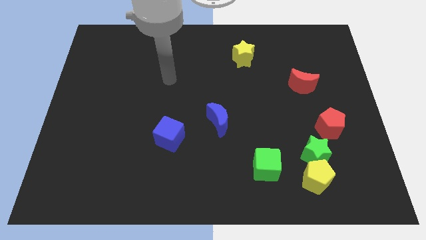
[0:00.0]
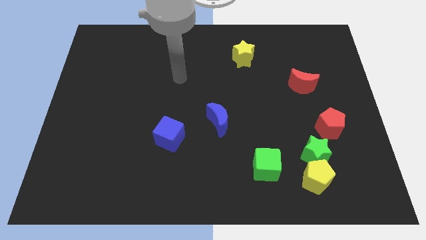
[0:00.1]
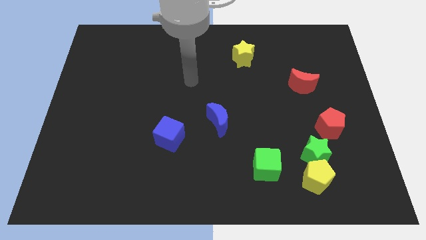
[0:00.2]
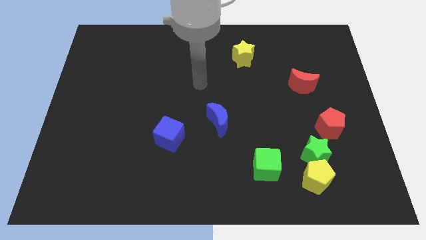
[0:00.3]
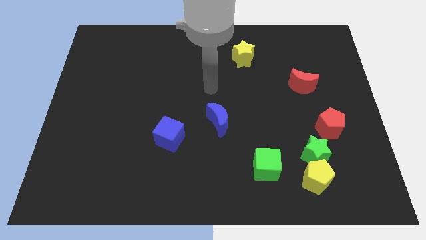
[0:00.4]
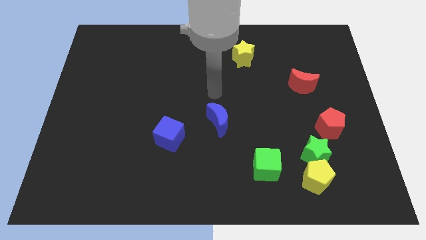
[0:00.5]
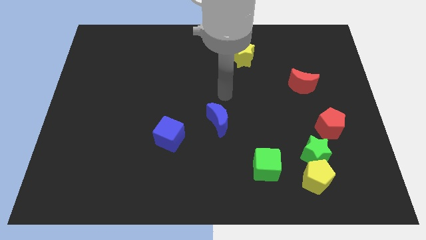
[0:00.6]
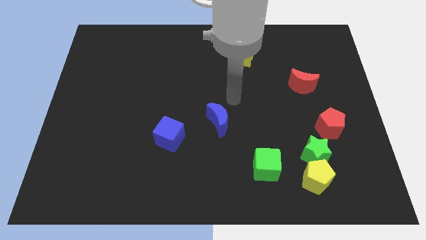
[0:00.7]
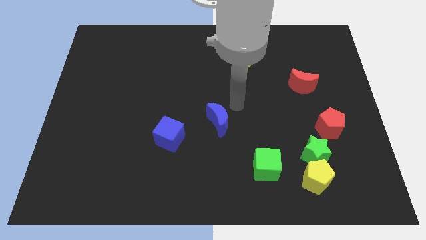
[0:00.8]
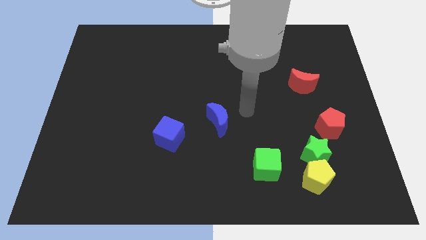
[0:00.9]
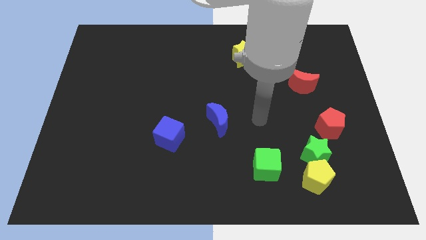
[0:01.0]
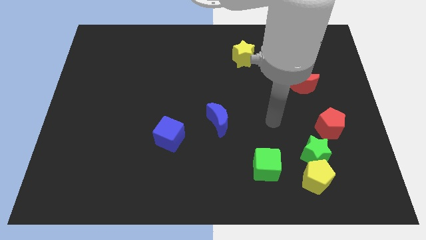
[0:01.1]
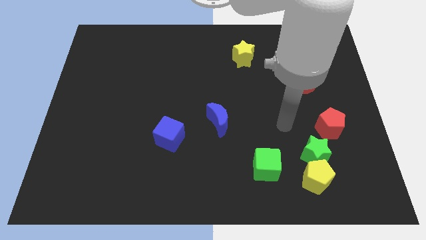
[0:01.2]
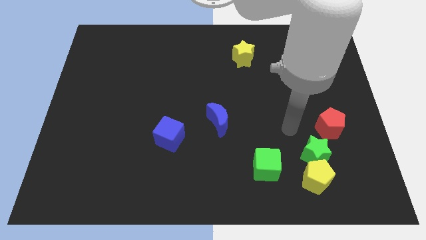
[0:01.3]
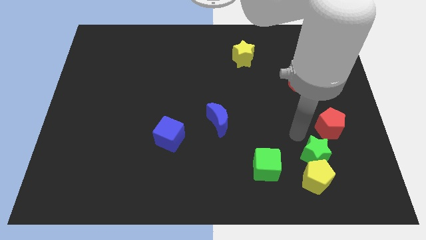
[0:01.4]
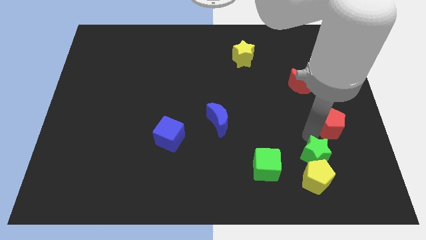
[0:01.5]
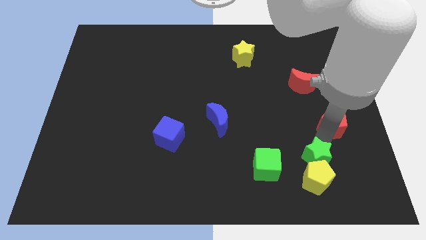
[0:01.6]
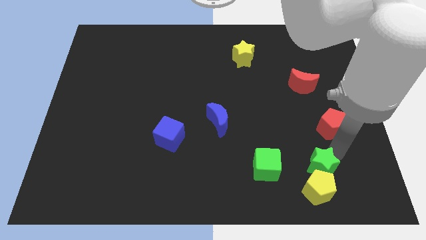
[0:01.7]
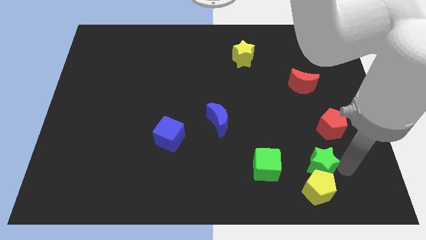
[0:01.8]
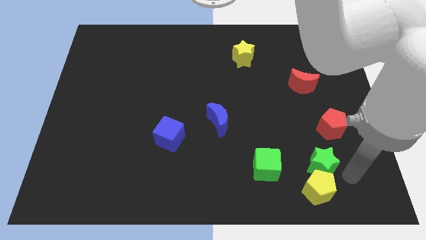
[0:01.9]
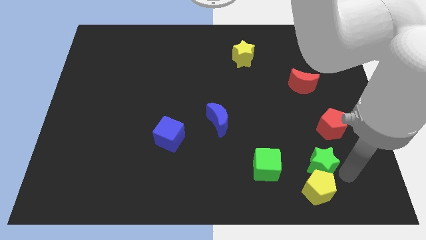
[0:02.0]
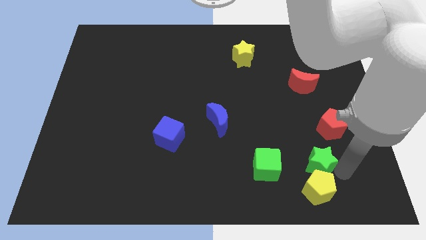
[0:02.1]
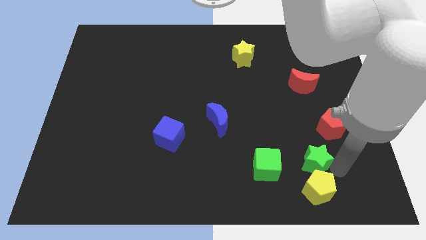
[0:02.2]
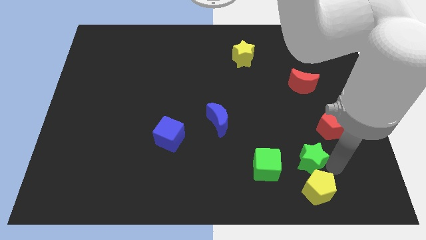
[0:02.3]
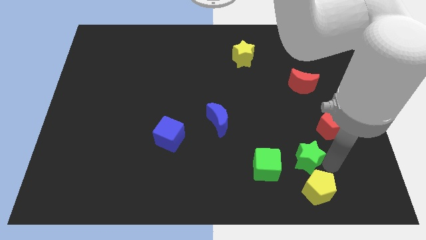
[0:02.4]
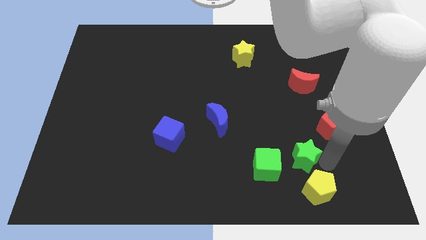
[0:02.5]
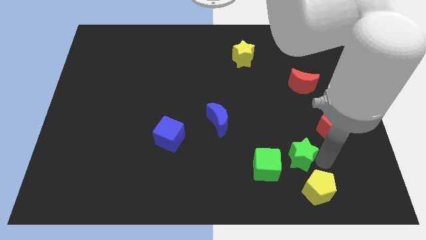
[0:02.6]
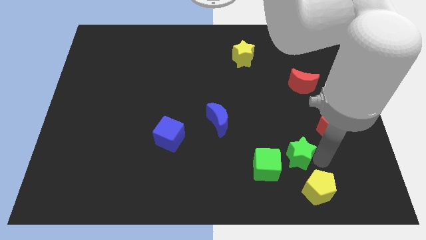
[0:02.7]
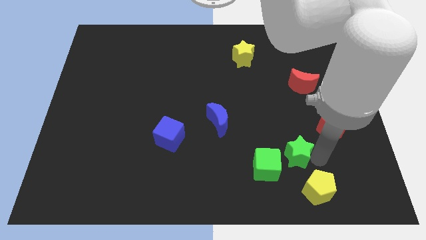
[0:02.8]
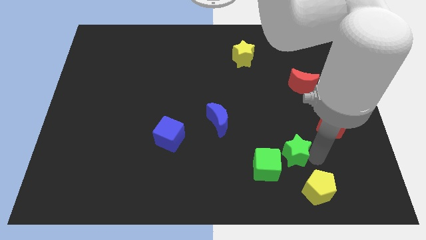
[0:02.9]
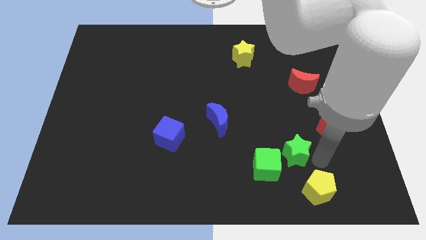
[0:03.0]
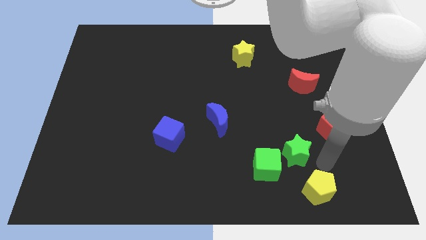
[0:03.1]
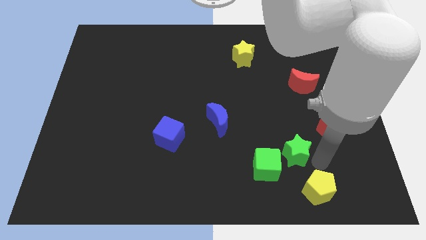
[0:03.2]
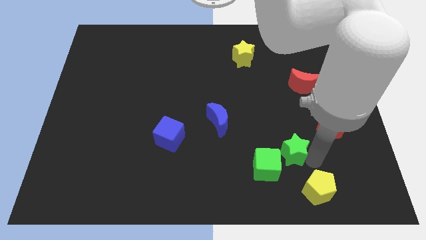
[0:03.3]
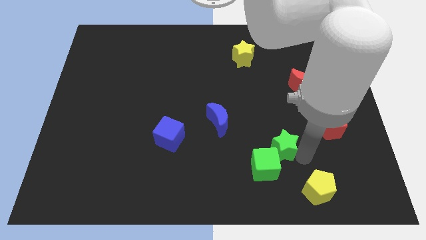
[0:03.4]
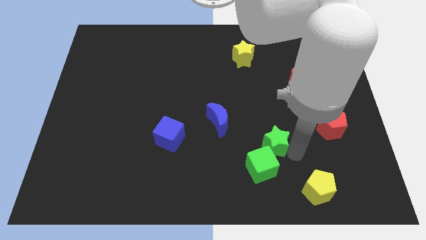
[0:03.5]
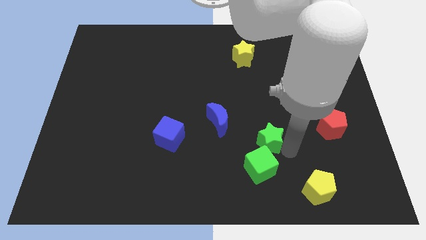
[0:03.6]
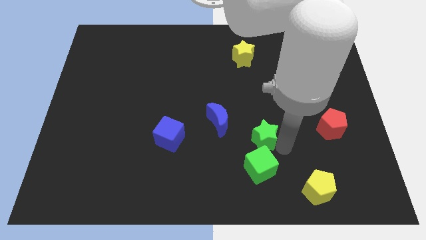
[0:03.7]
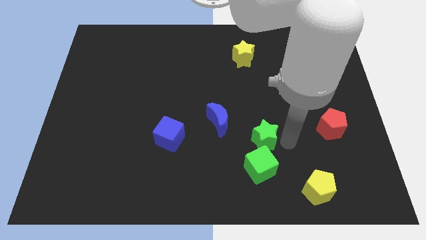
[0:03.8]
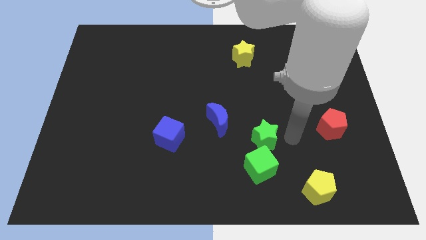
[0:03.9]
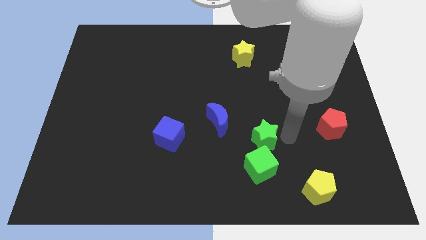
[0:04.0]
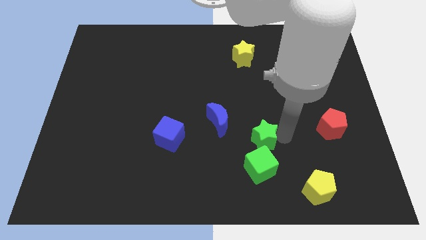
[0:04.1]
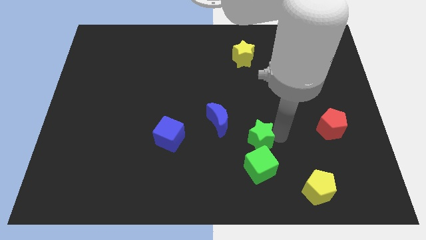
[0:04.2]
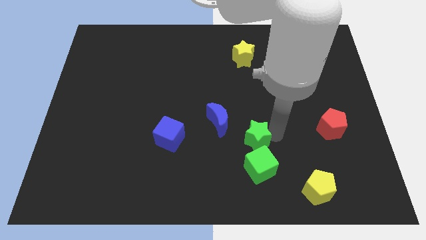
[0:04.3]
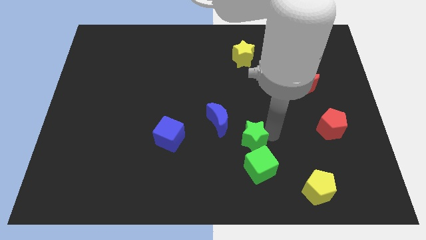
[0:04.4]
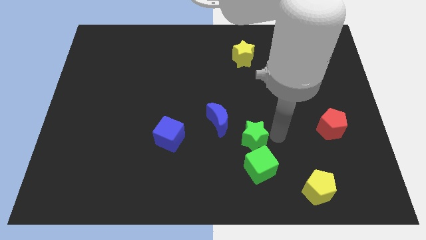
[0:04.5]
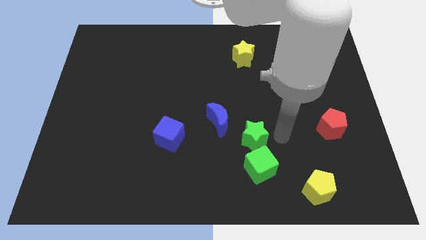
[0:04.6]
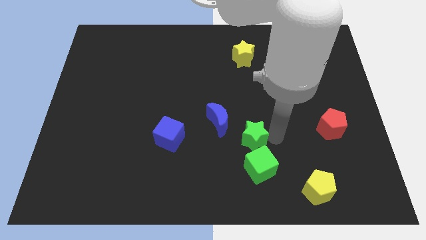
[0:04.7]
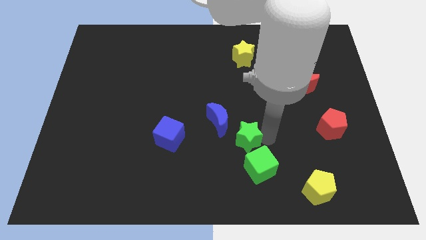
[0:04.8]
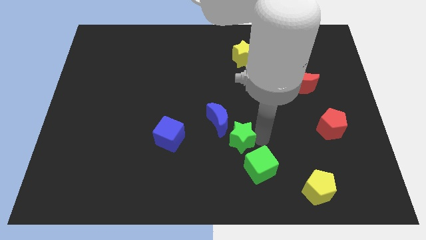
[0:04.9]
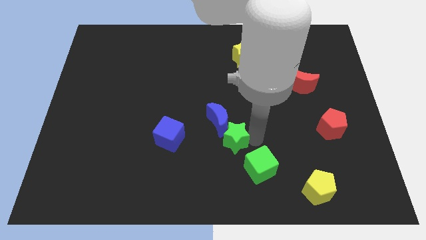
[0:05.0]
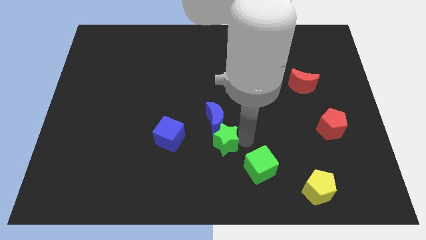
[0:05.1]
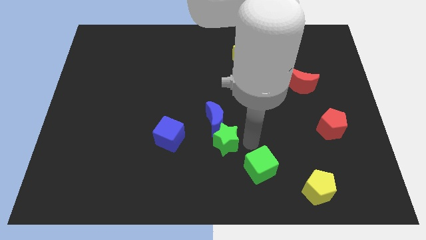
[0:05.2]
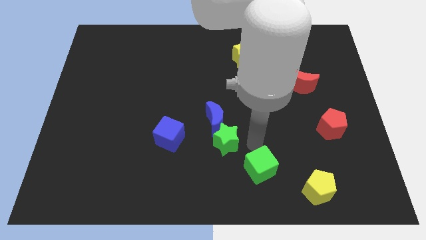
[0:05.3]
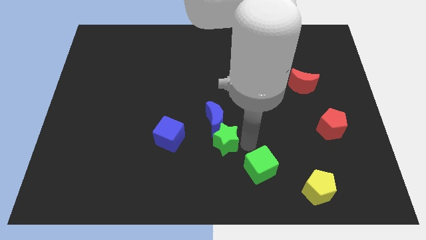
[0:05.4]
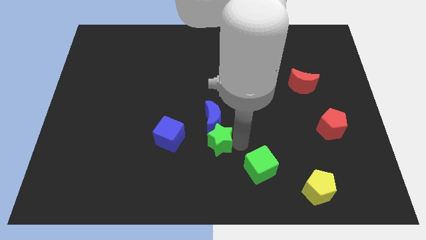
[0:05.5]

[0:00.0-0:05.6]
push the green star diagonally down and to the left of the blue moon

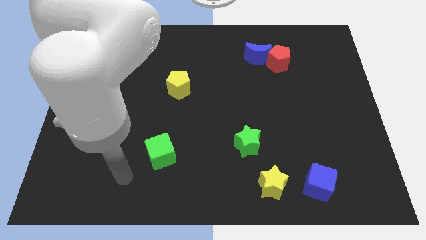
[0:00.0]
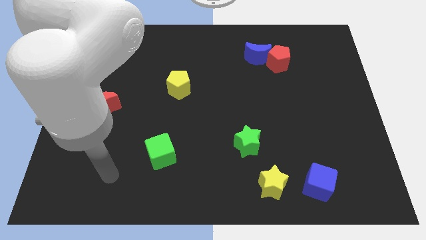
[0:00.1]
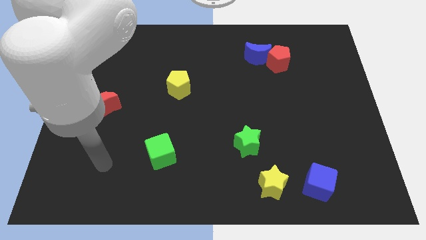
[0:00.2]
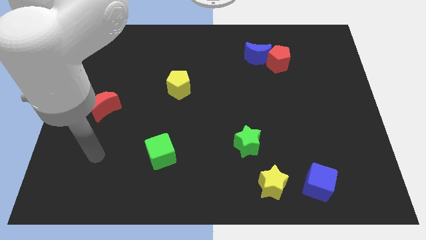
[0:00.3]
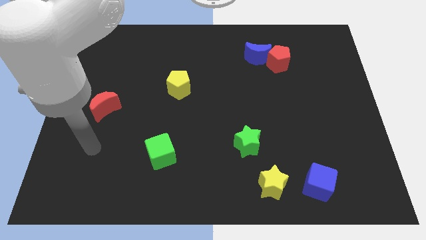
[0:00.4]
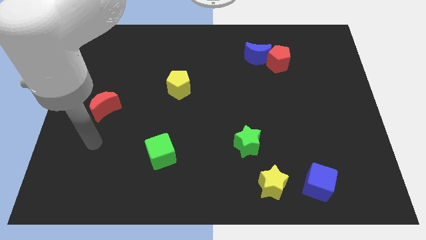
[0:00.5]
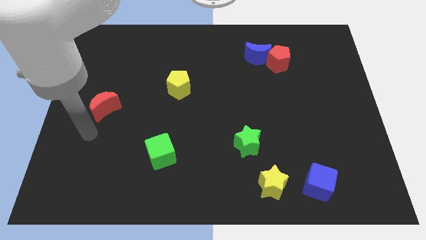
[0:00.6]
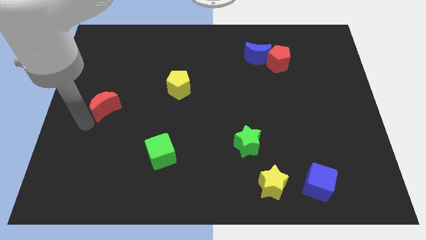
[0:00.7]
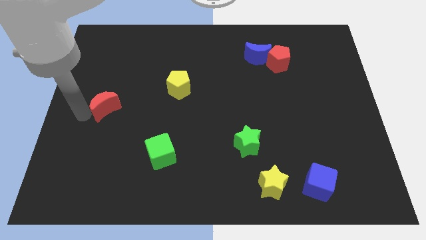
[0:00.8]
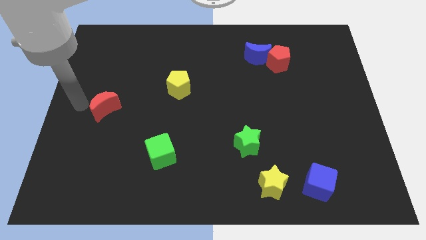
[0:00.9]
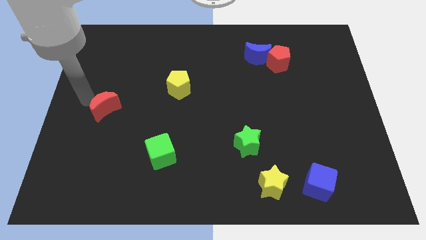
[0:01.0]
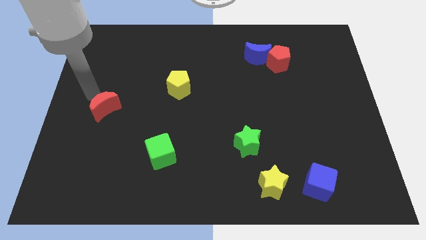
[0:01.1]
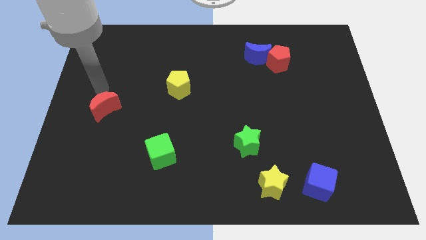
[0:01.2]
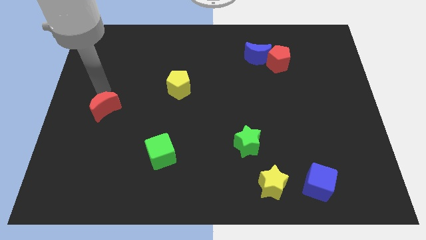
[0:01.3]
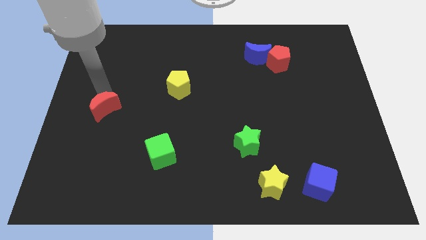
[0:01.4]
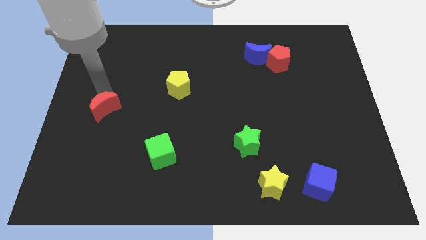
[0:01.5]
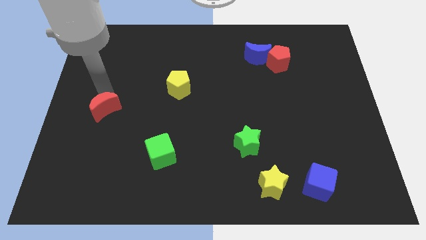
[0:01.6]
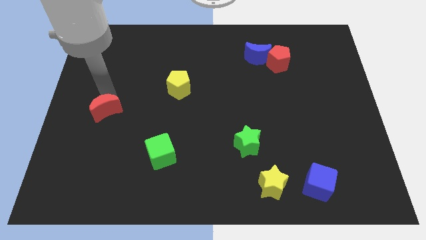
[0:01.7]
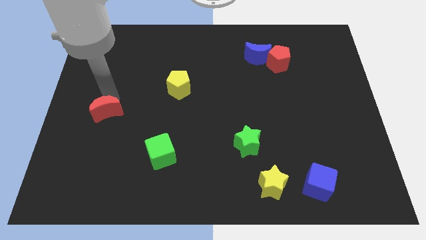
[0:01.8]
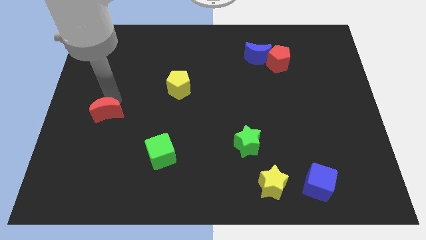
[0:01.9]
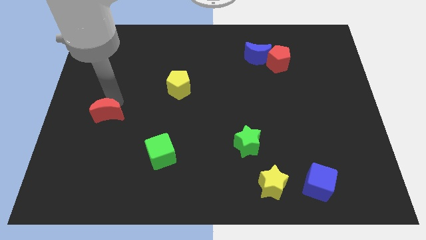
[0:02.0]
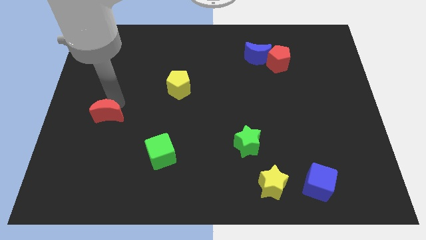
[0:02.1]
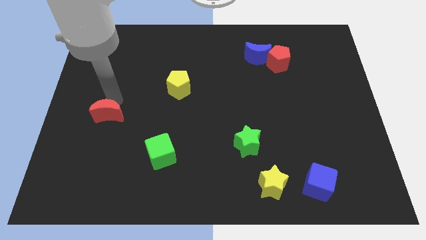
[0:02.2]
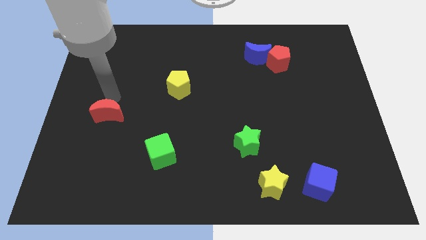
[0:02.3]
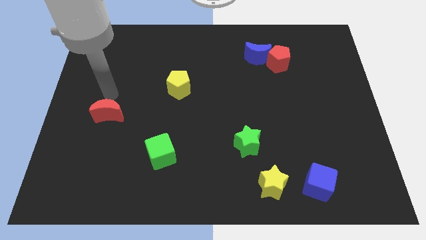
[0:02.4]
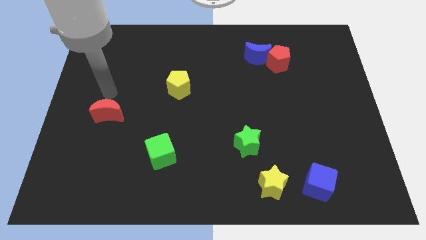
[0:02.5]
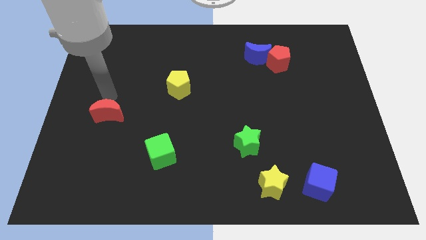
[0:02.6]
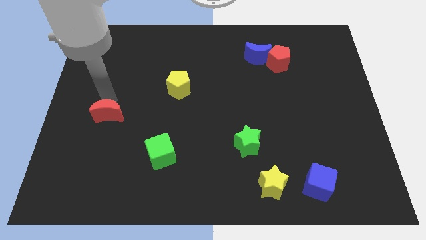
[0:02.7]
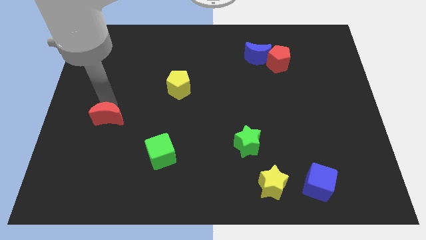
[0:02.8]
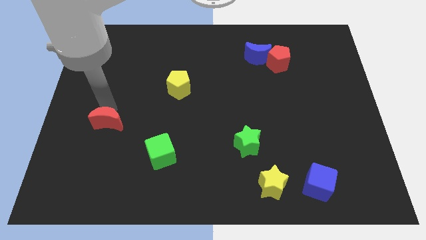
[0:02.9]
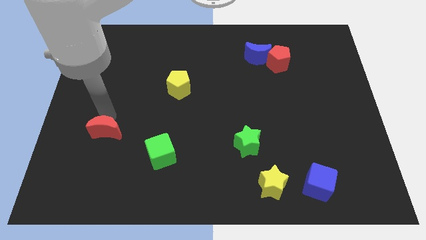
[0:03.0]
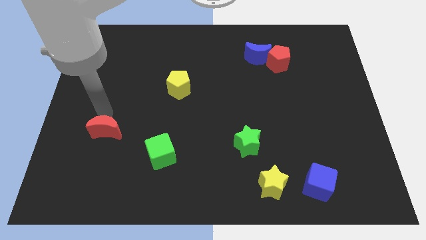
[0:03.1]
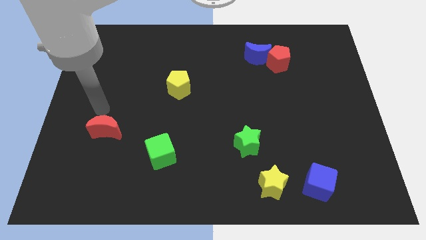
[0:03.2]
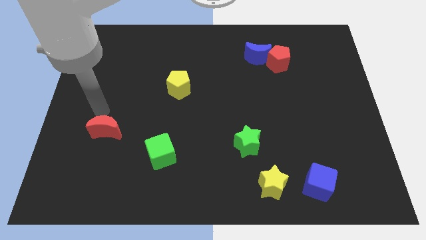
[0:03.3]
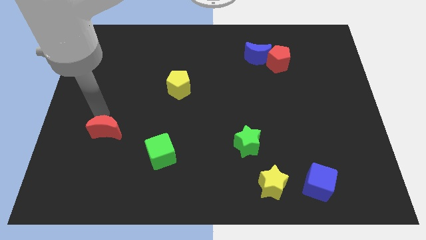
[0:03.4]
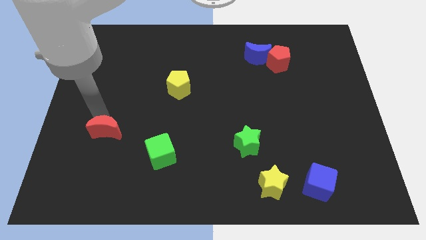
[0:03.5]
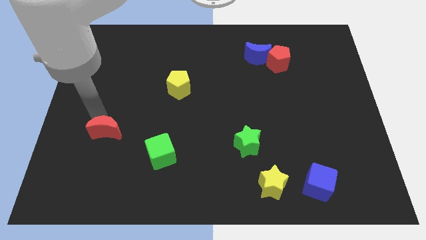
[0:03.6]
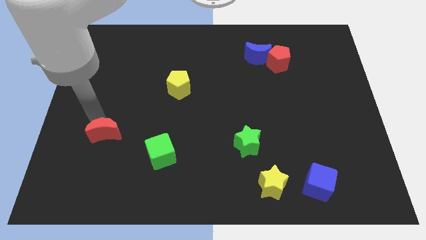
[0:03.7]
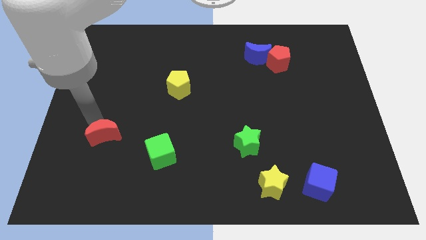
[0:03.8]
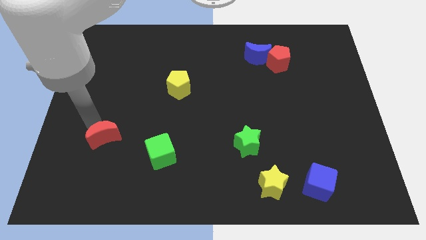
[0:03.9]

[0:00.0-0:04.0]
put the red moon to the left of the green cube
